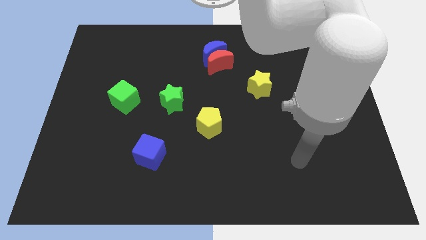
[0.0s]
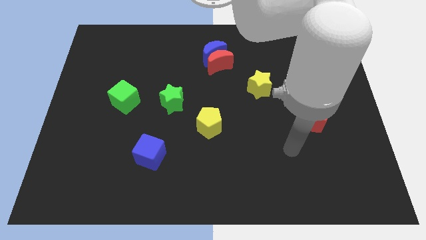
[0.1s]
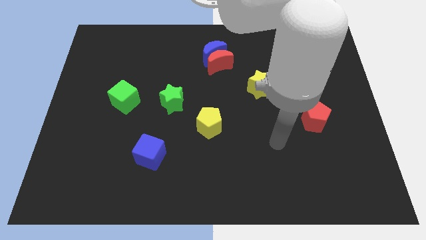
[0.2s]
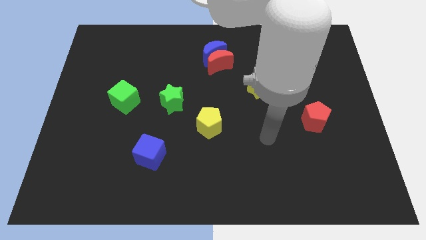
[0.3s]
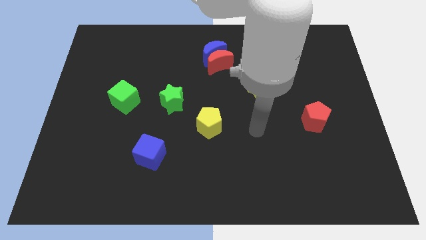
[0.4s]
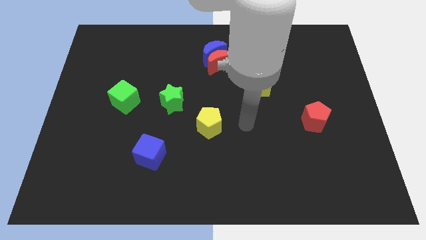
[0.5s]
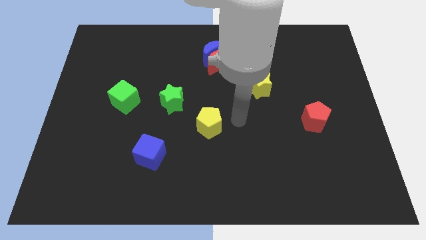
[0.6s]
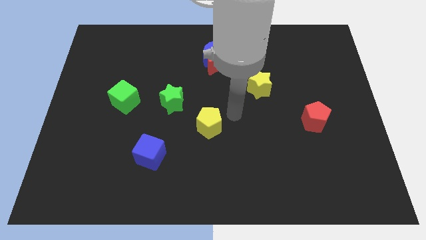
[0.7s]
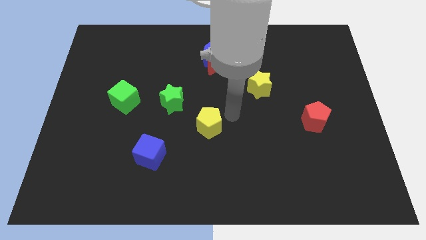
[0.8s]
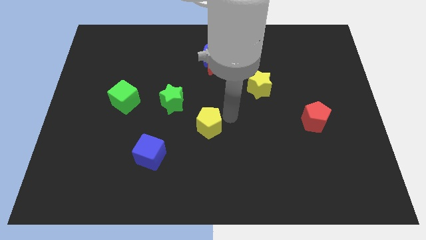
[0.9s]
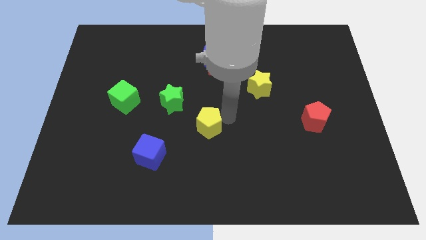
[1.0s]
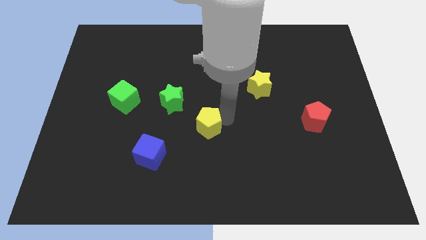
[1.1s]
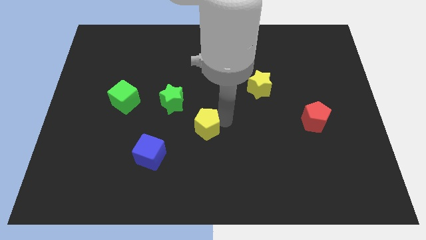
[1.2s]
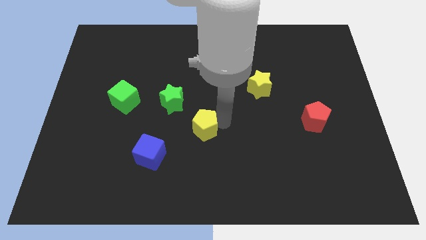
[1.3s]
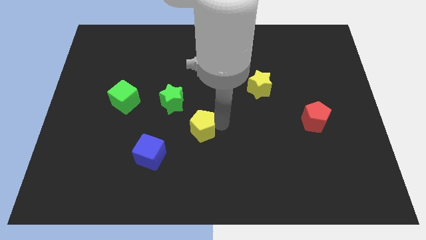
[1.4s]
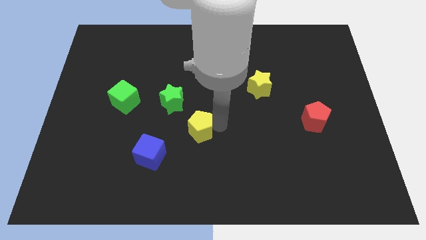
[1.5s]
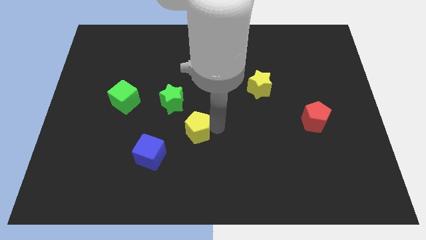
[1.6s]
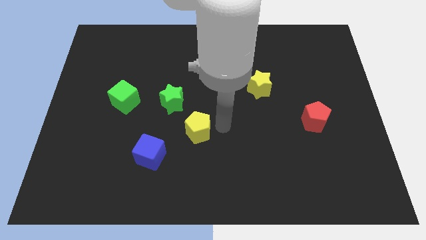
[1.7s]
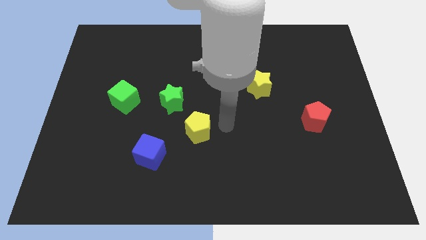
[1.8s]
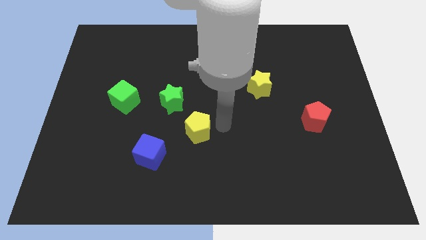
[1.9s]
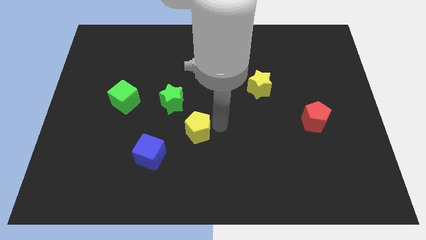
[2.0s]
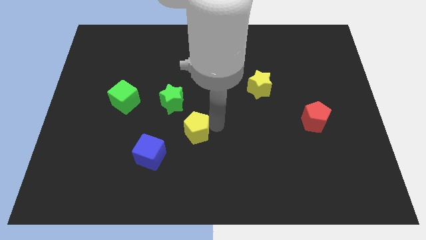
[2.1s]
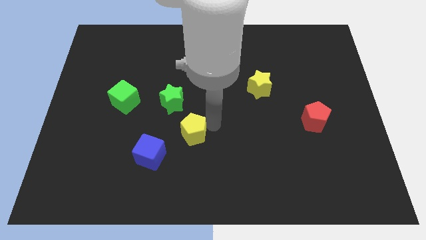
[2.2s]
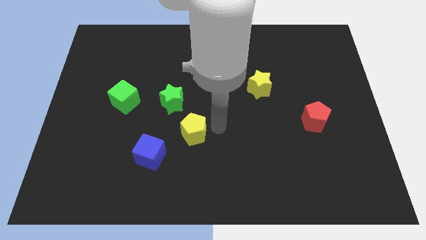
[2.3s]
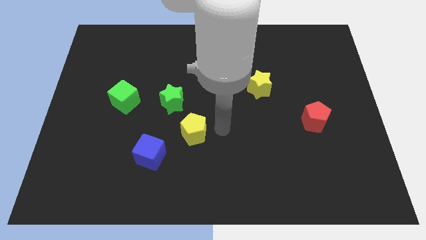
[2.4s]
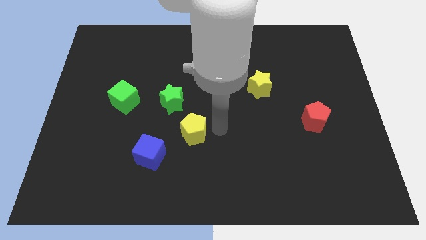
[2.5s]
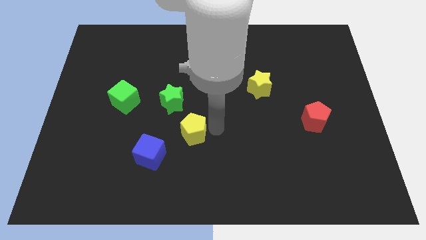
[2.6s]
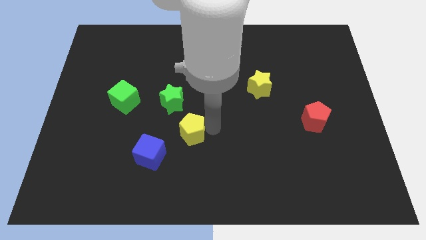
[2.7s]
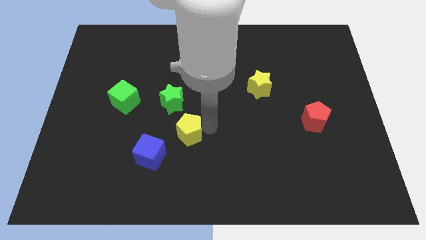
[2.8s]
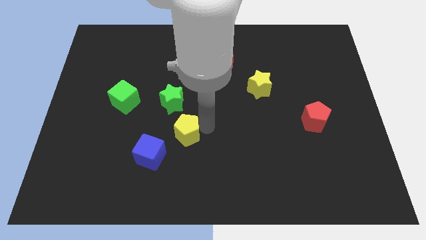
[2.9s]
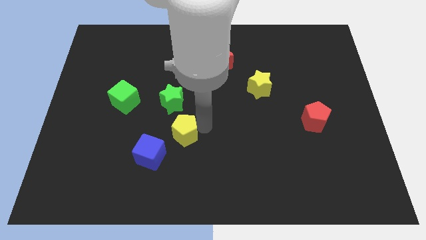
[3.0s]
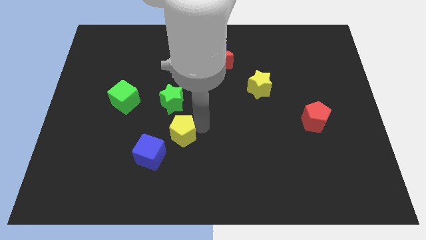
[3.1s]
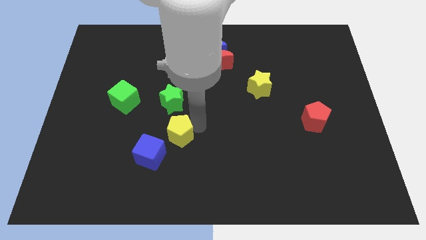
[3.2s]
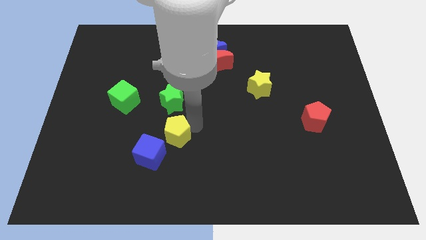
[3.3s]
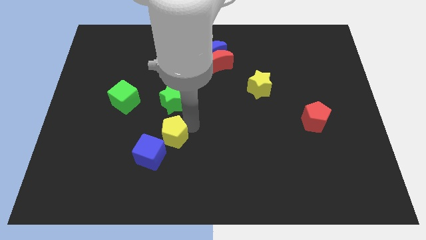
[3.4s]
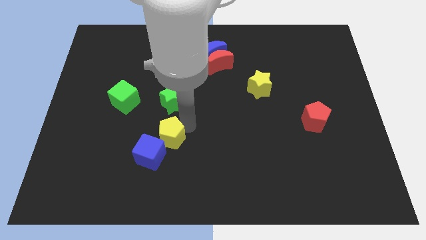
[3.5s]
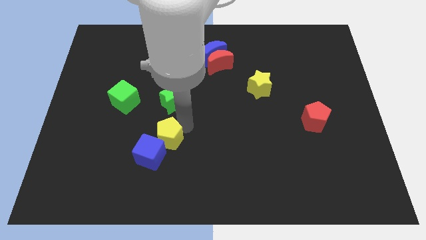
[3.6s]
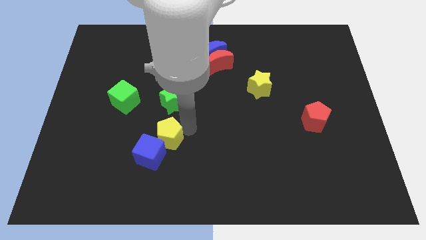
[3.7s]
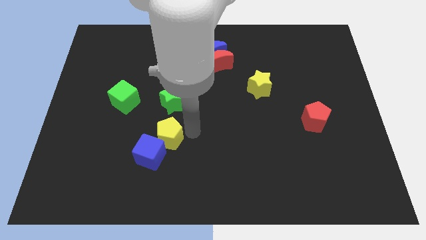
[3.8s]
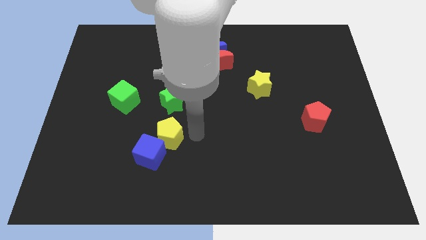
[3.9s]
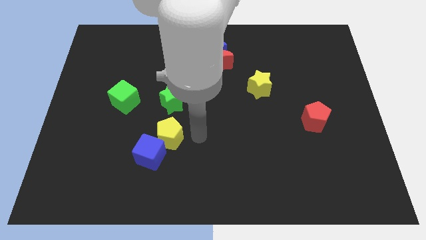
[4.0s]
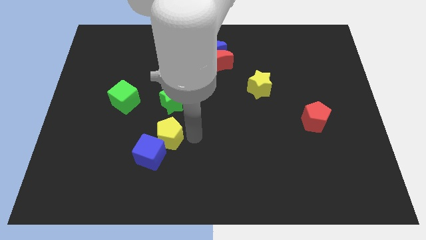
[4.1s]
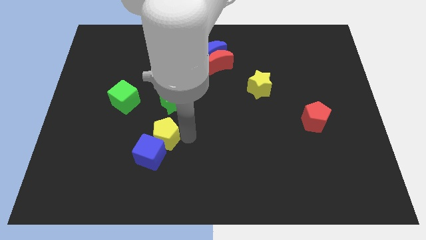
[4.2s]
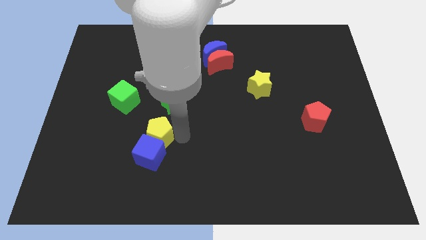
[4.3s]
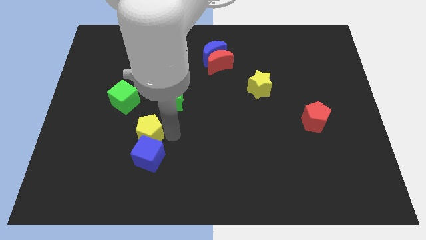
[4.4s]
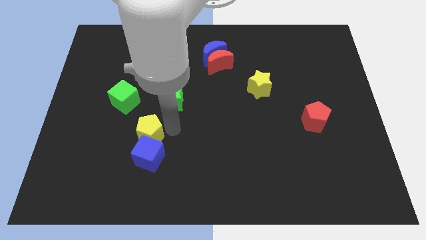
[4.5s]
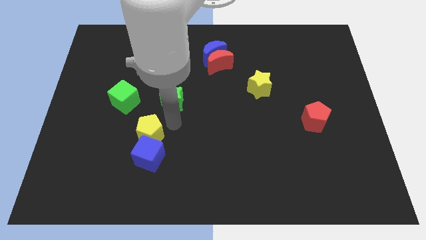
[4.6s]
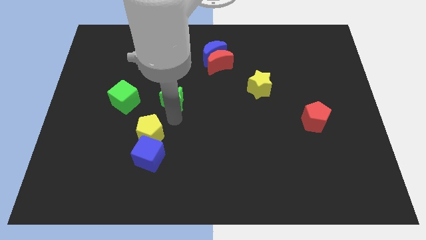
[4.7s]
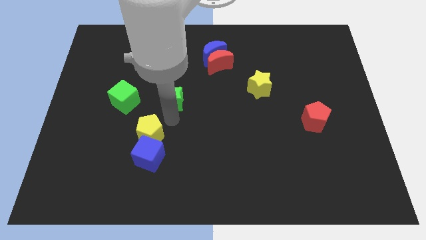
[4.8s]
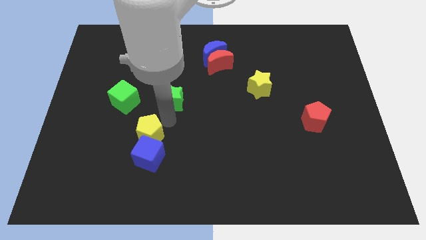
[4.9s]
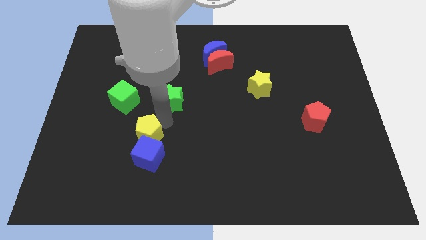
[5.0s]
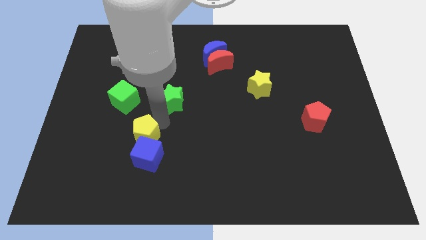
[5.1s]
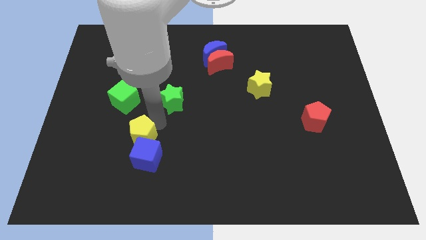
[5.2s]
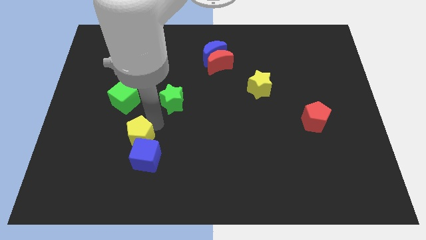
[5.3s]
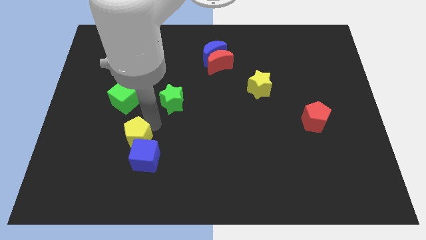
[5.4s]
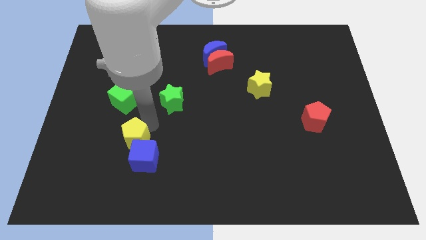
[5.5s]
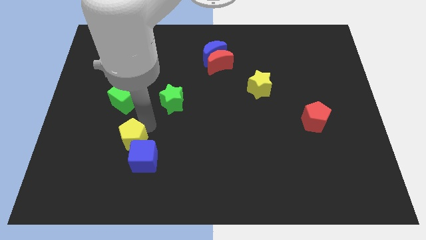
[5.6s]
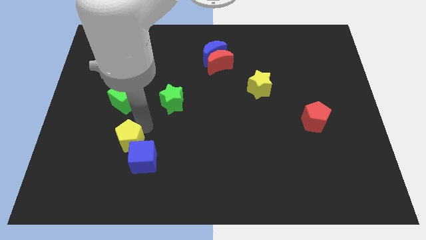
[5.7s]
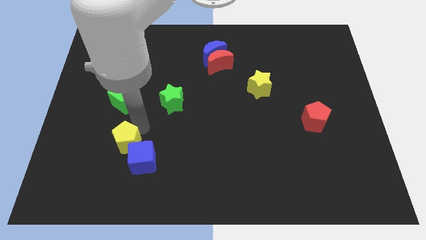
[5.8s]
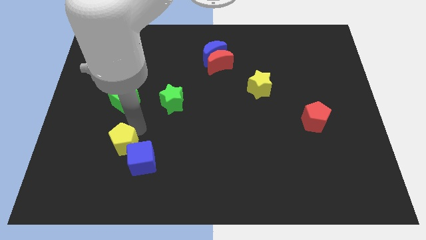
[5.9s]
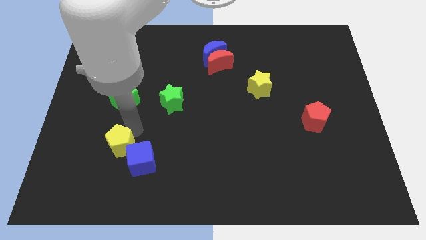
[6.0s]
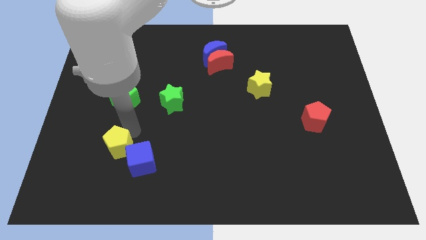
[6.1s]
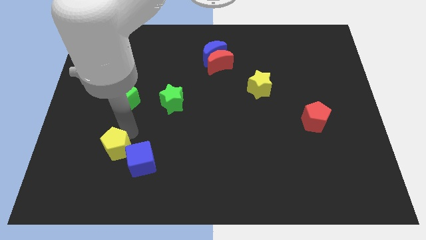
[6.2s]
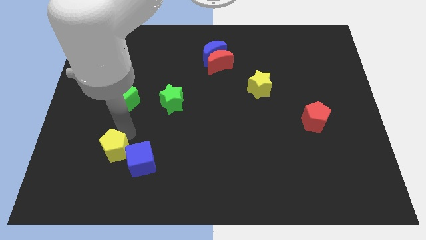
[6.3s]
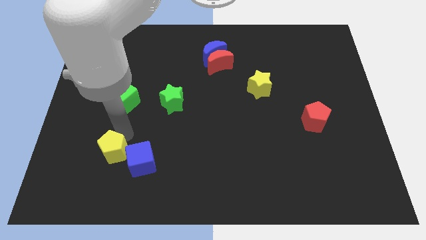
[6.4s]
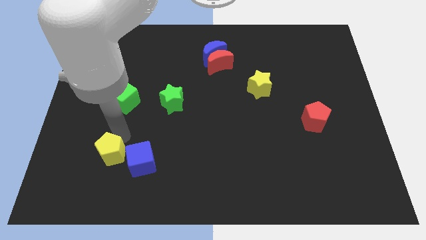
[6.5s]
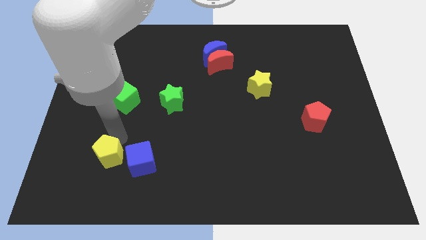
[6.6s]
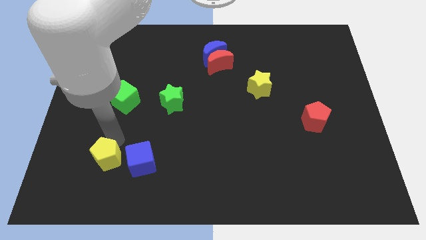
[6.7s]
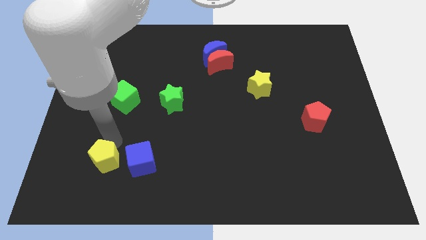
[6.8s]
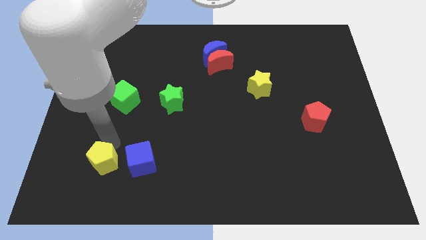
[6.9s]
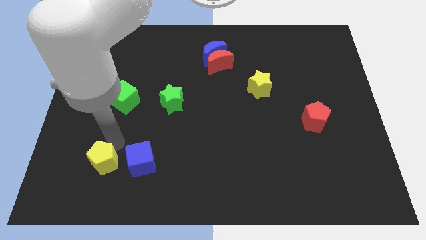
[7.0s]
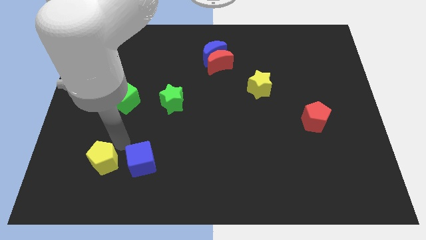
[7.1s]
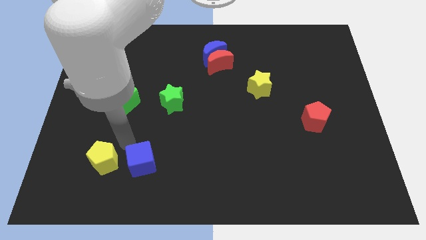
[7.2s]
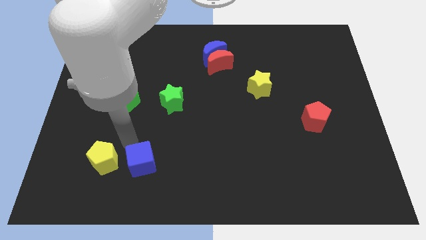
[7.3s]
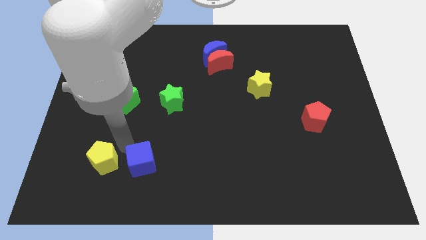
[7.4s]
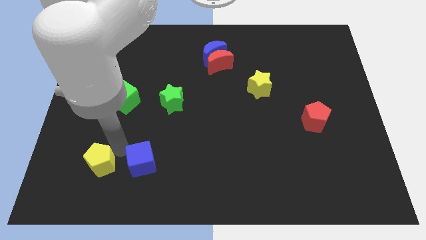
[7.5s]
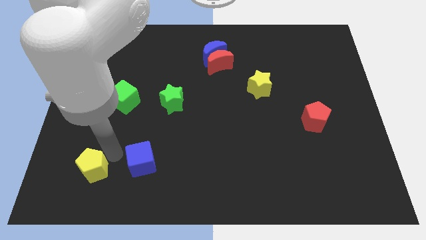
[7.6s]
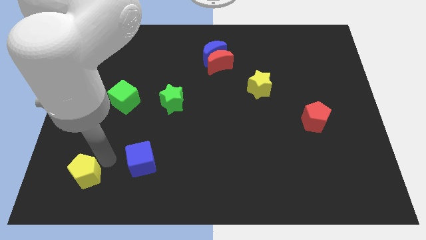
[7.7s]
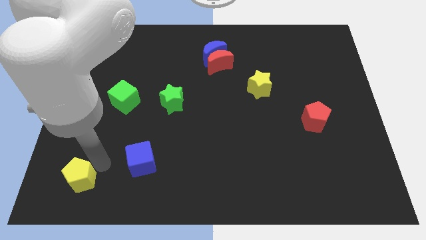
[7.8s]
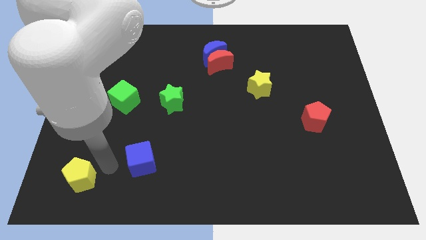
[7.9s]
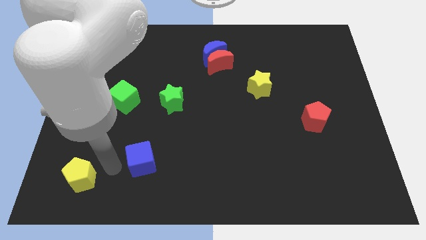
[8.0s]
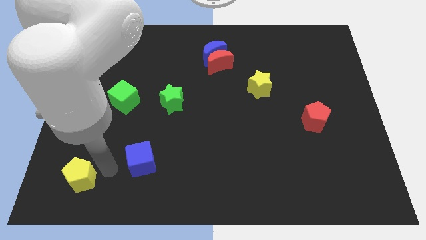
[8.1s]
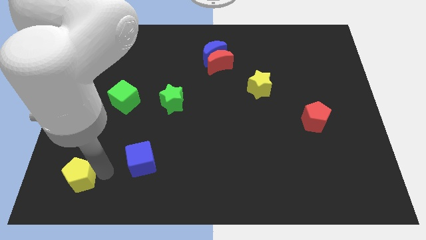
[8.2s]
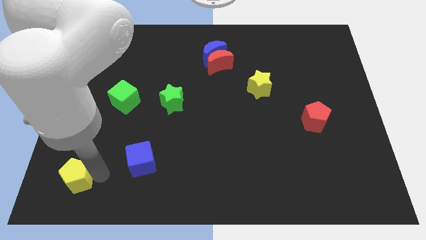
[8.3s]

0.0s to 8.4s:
push the yellow pentagon to the bottom left corner
